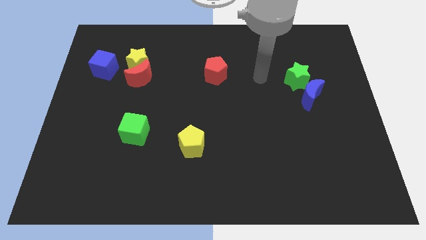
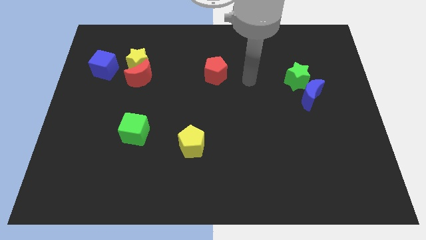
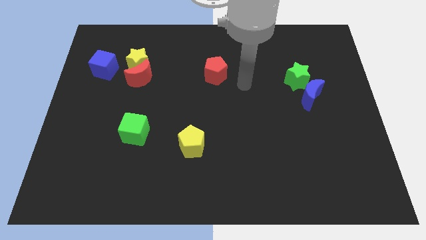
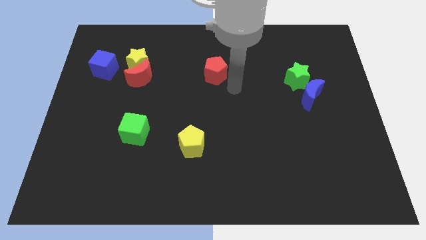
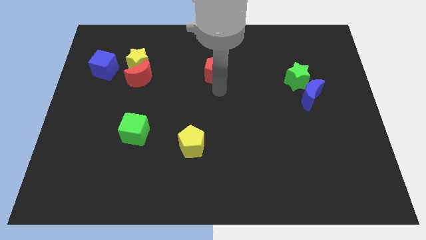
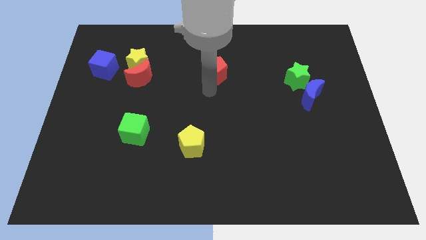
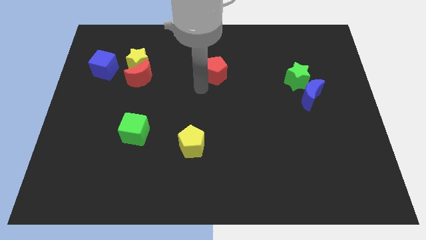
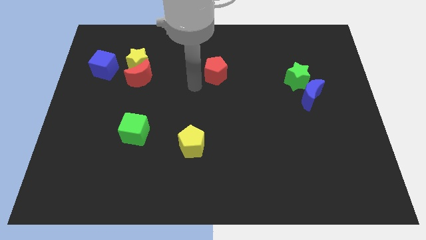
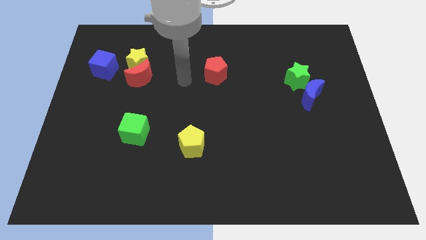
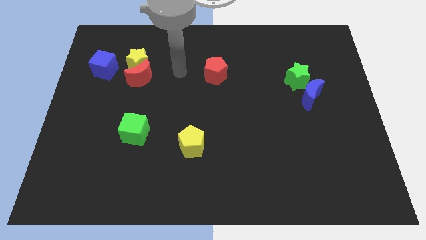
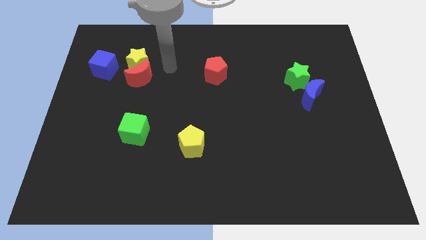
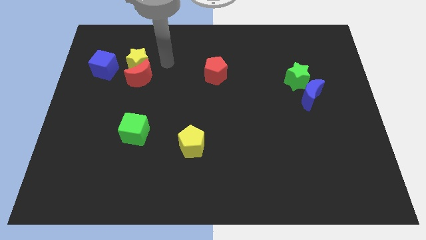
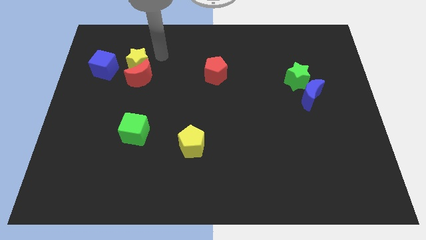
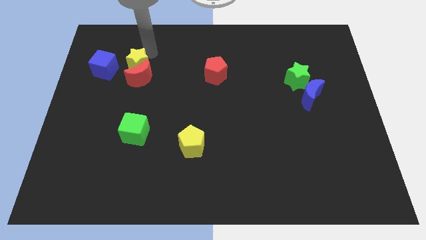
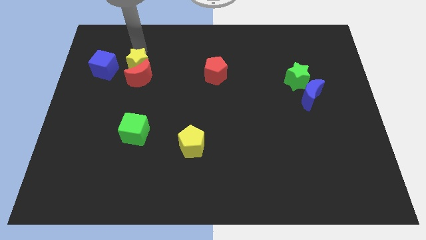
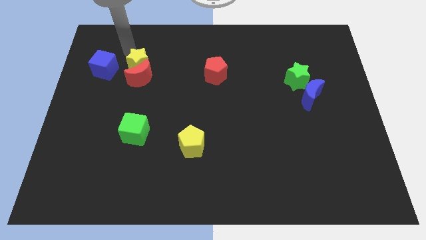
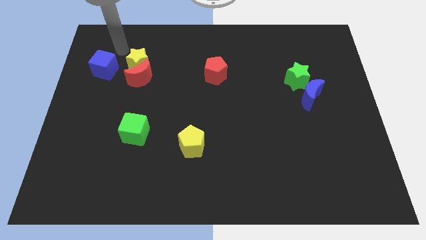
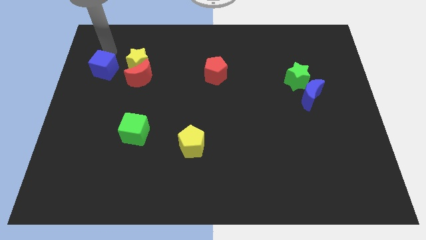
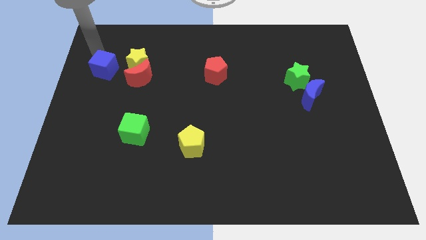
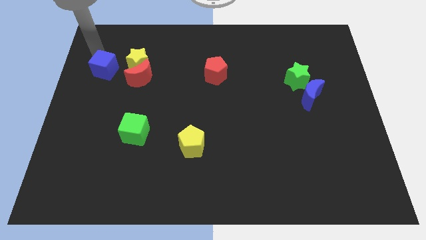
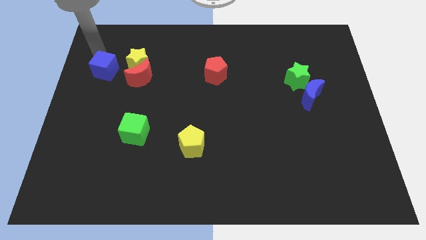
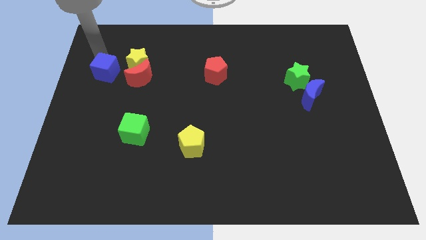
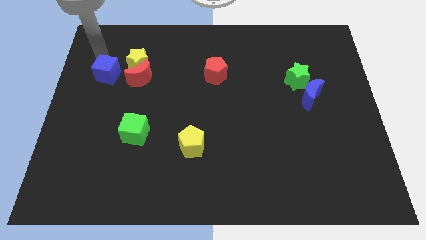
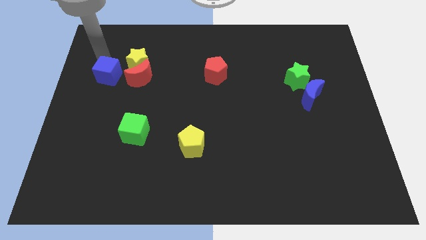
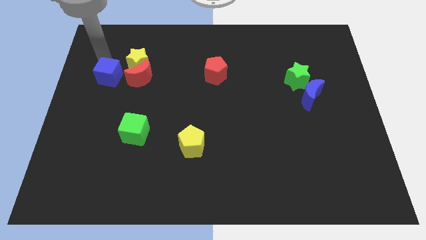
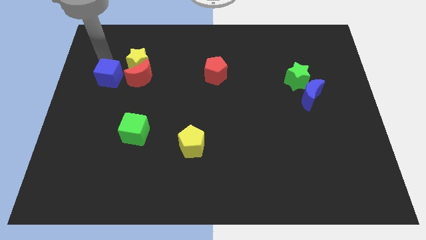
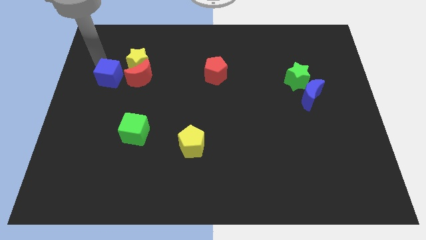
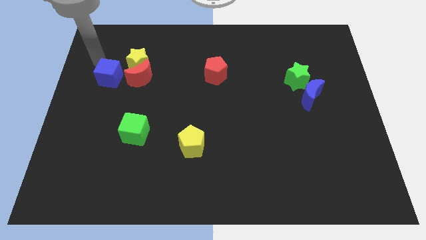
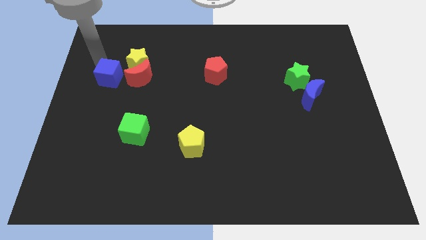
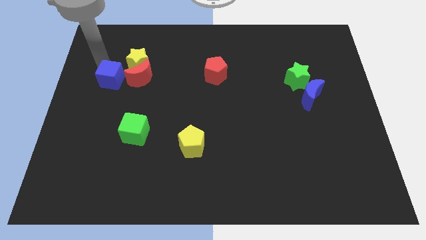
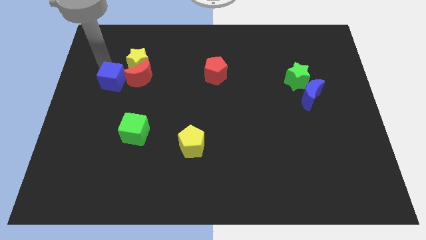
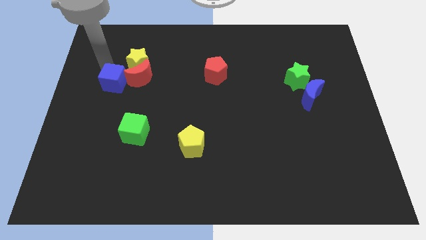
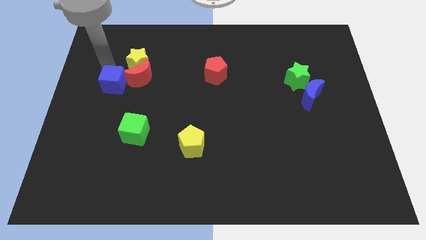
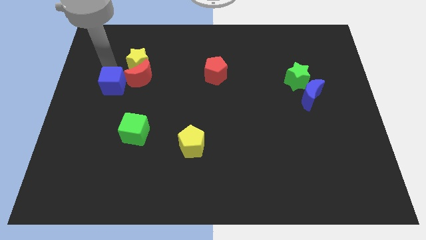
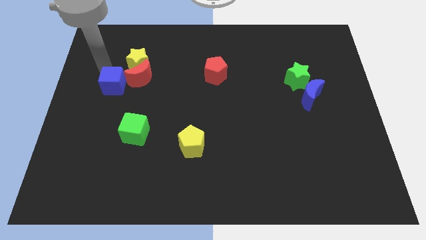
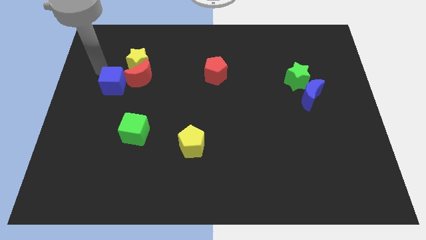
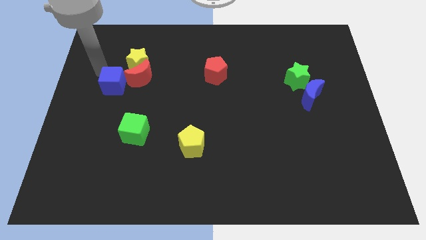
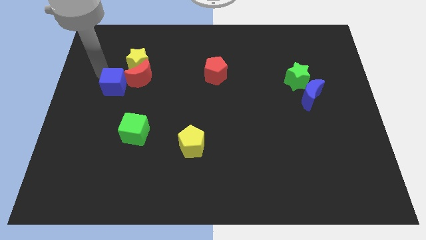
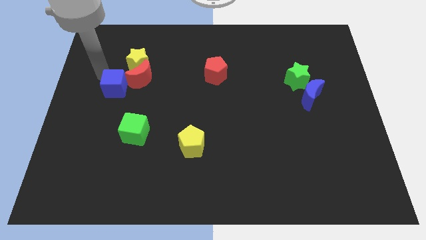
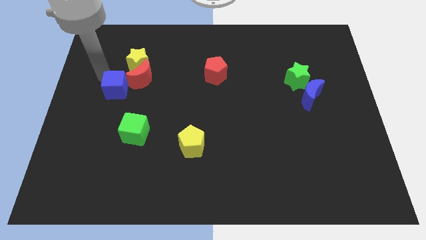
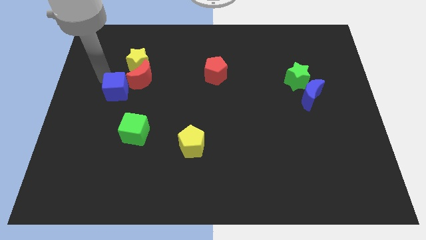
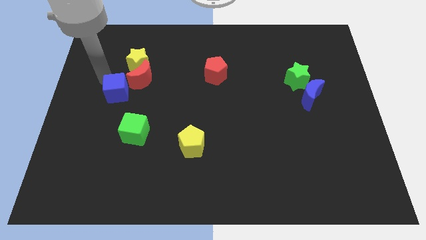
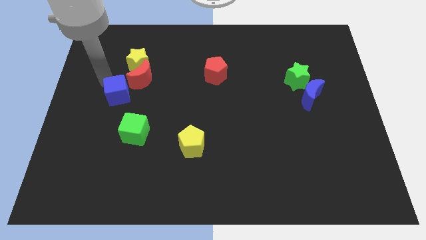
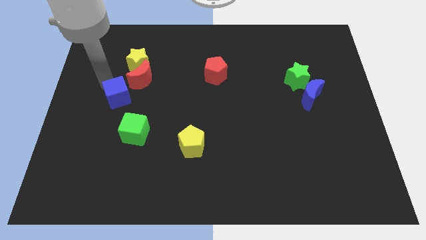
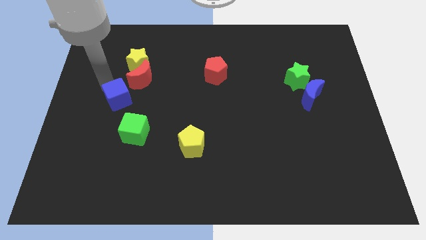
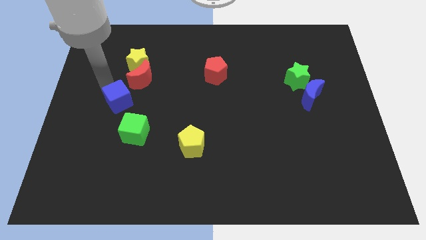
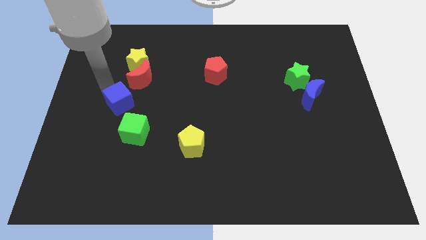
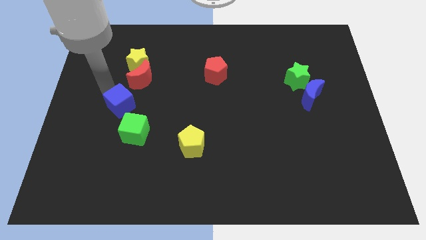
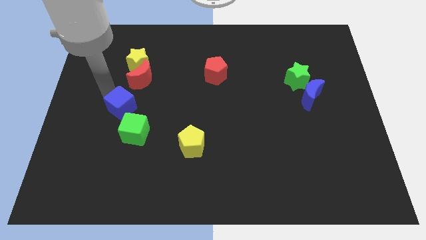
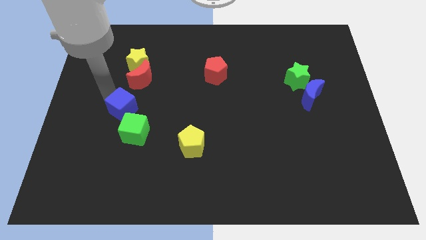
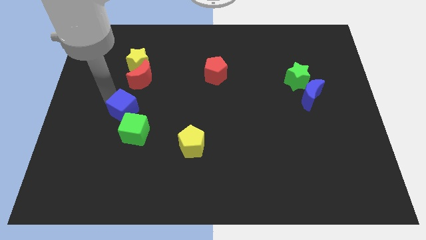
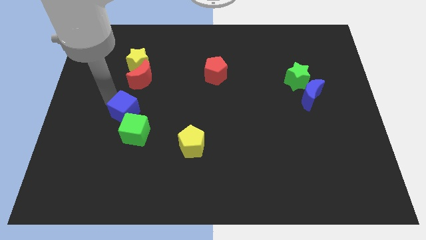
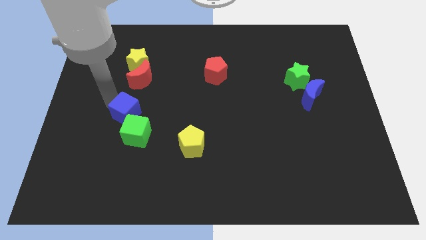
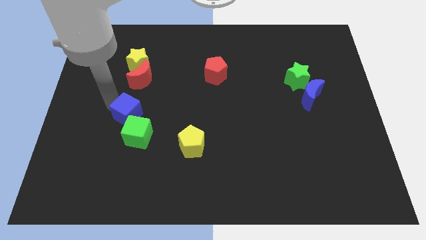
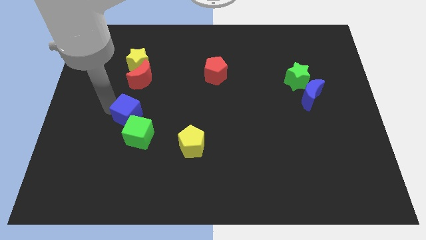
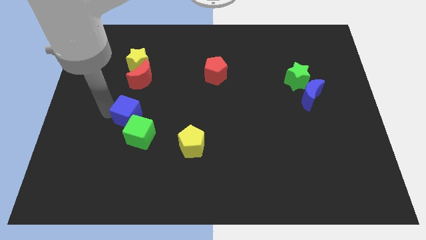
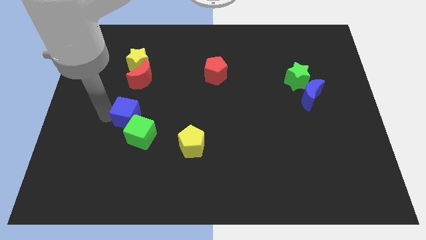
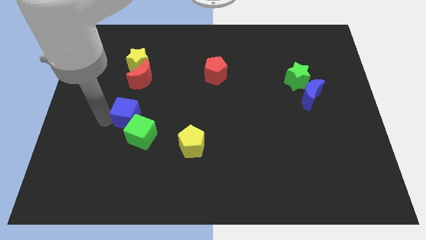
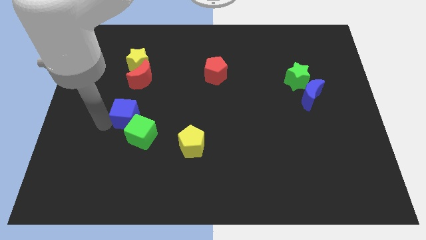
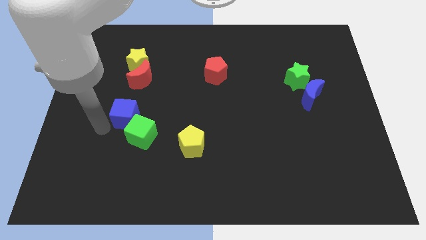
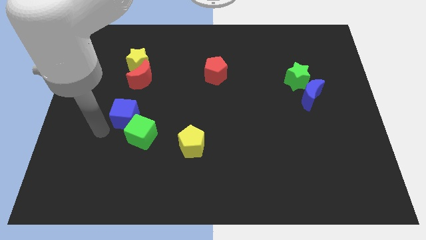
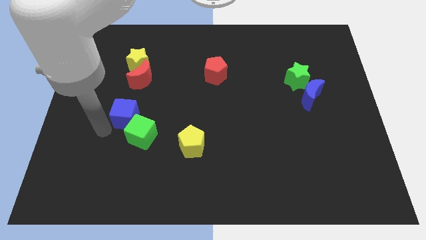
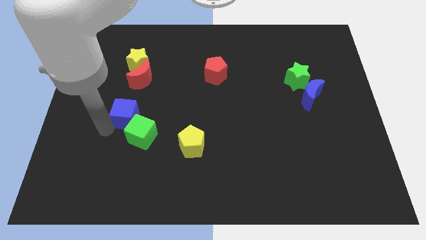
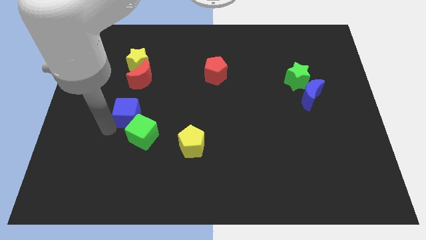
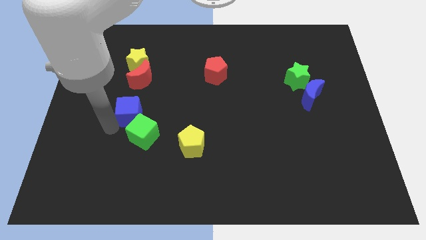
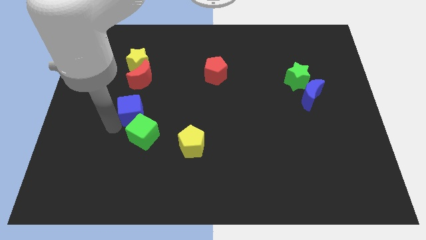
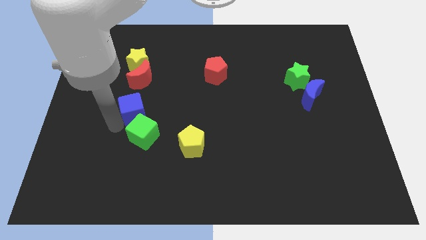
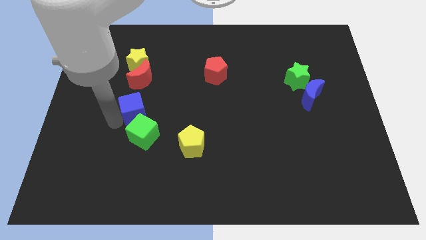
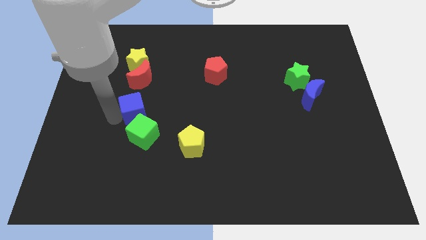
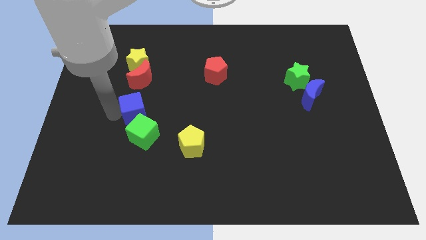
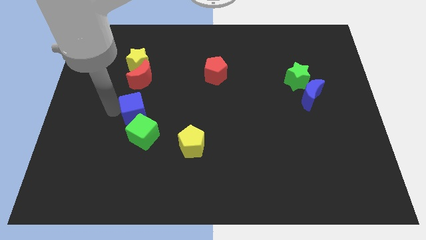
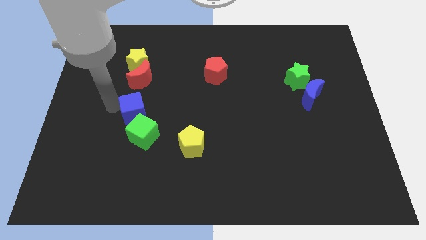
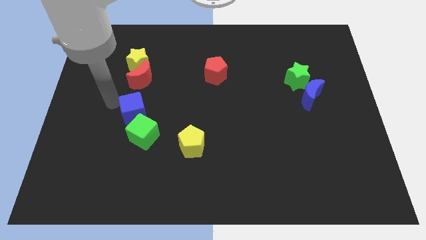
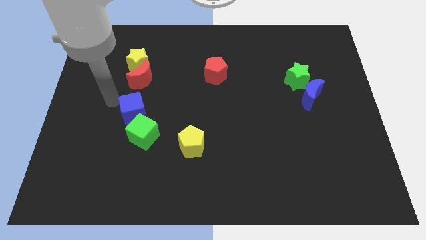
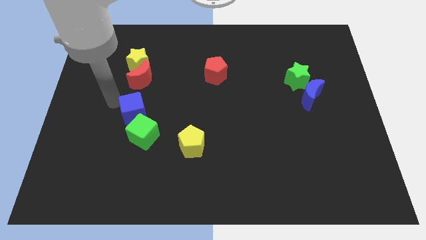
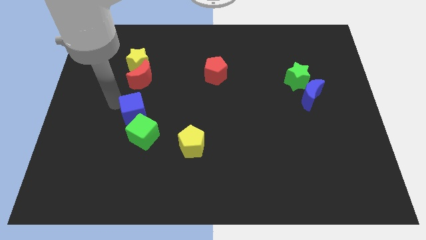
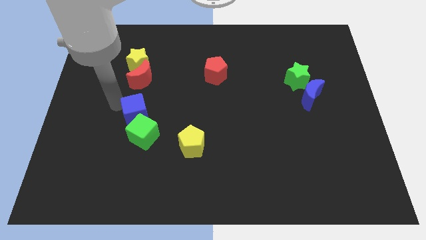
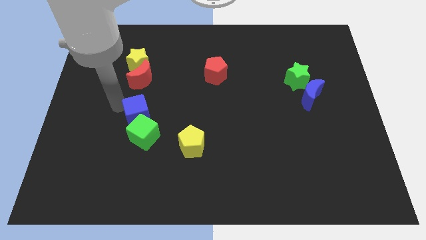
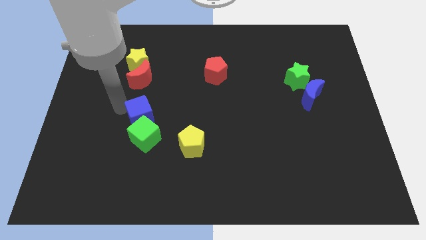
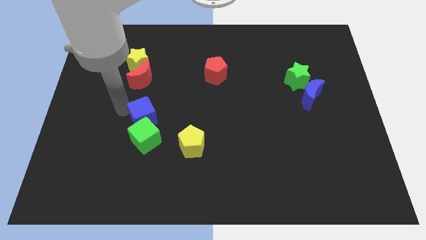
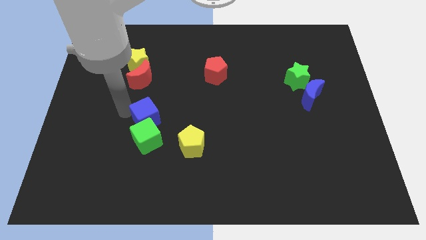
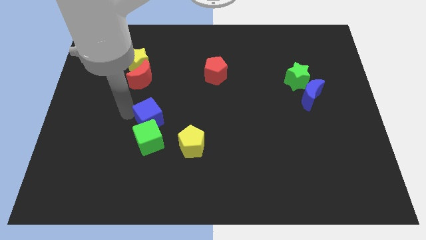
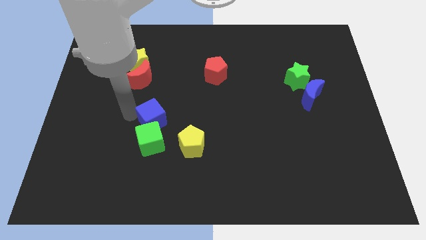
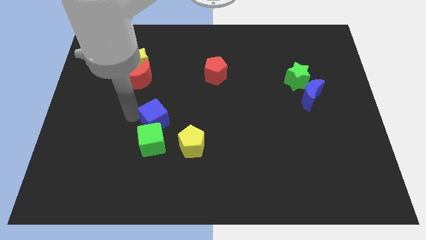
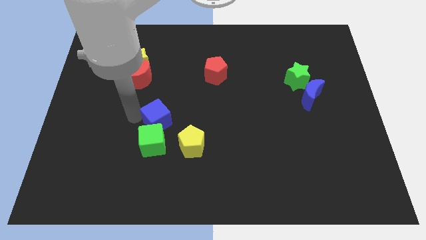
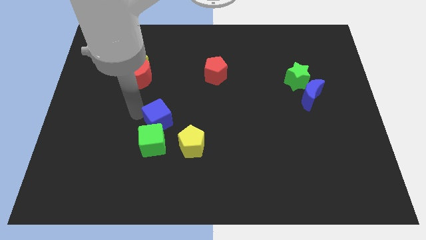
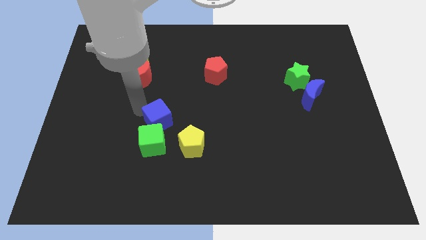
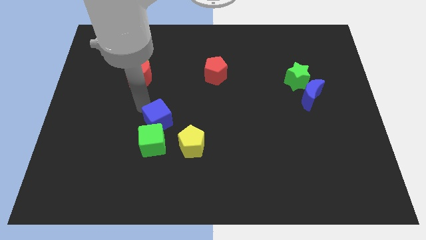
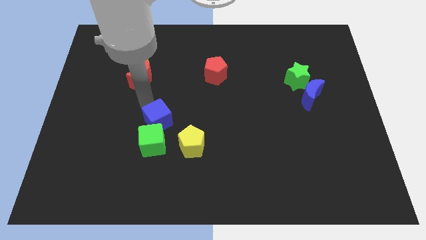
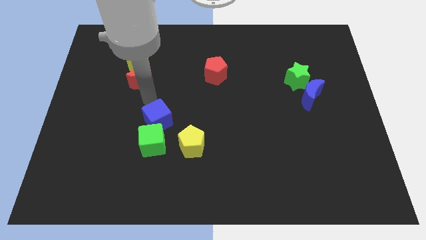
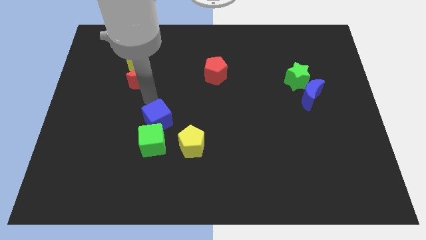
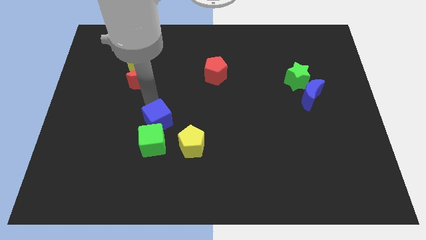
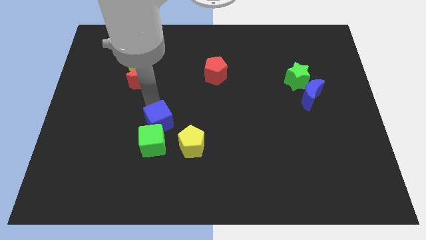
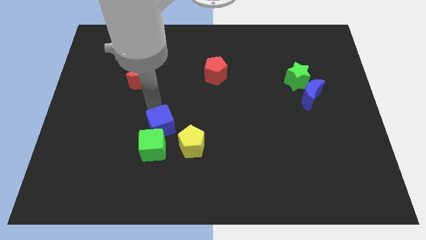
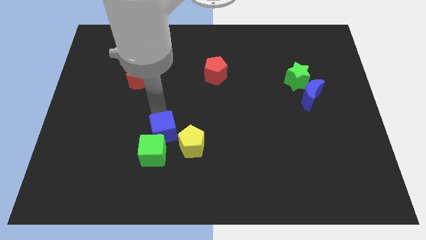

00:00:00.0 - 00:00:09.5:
push the blue cube to the left side of the yellow pentagon
